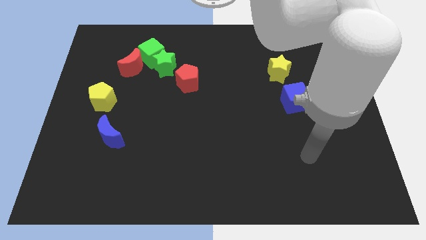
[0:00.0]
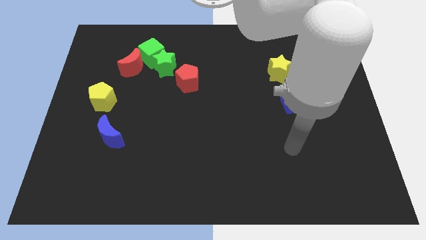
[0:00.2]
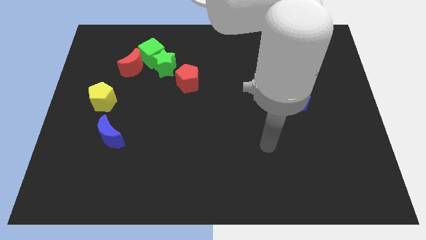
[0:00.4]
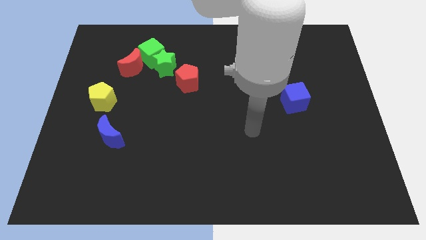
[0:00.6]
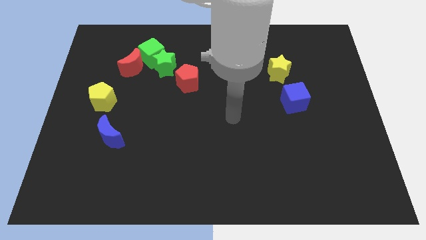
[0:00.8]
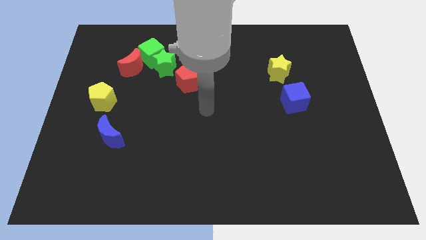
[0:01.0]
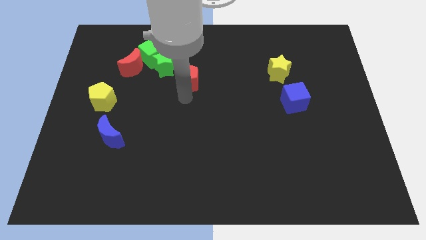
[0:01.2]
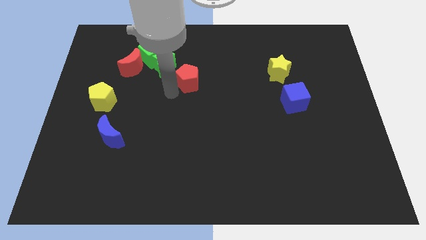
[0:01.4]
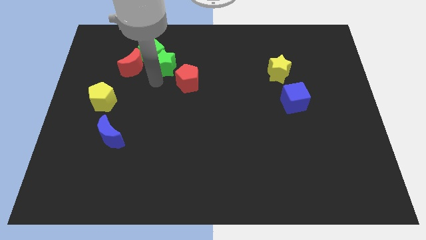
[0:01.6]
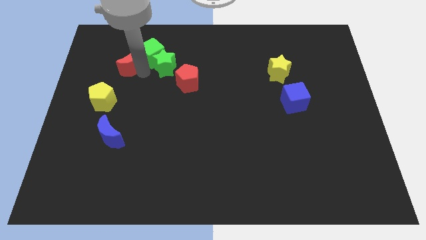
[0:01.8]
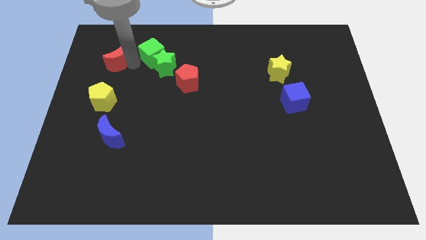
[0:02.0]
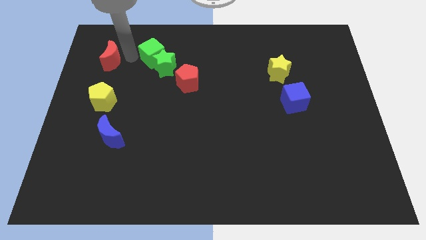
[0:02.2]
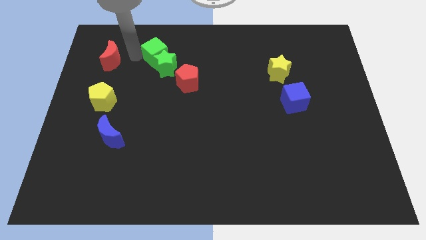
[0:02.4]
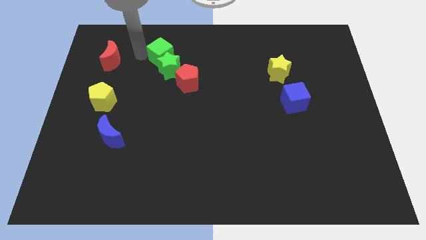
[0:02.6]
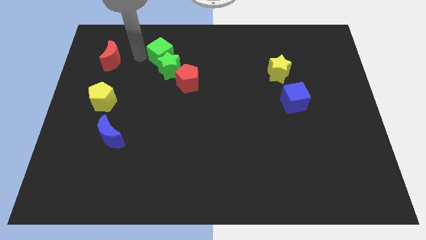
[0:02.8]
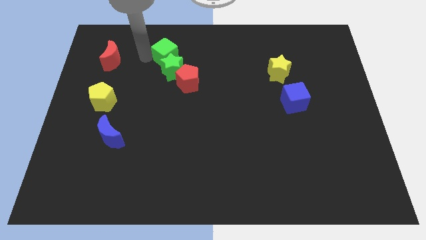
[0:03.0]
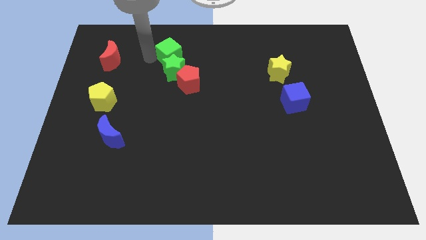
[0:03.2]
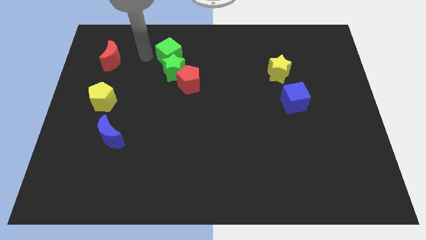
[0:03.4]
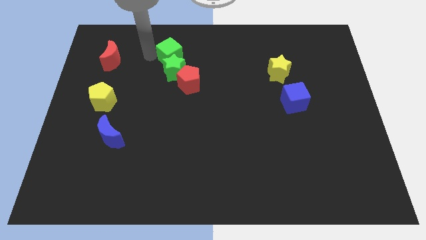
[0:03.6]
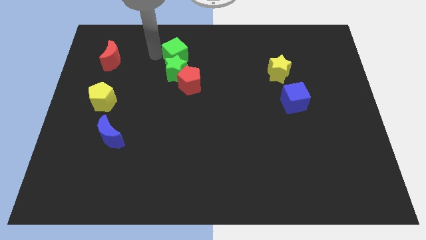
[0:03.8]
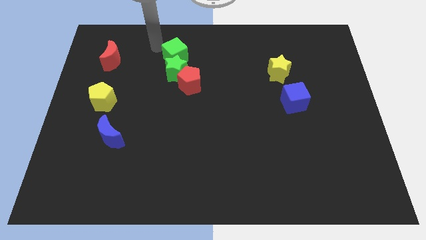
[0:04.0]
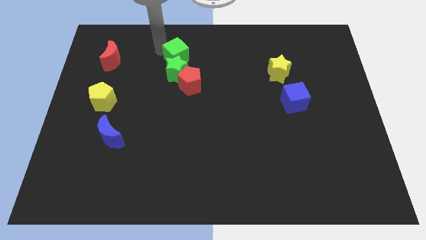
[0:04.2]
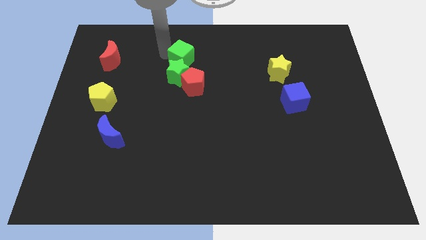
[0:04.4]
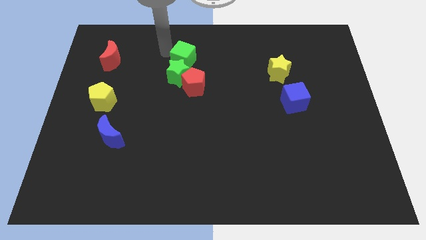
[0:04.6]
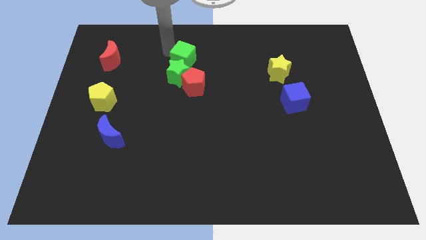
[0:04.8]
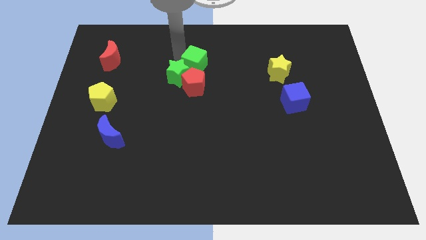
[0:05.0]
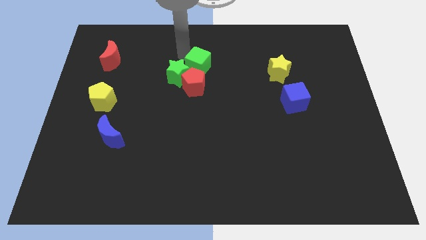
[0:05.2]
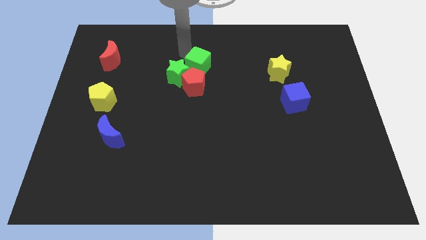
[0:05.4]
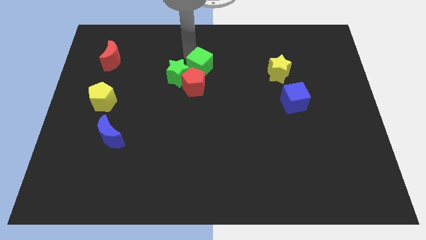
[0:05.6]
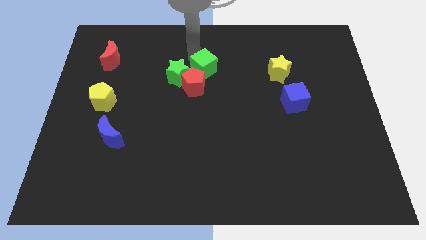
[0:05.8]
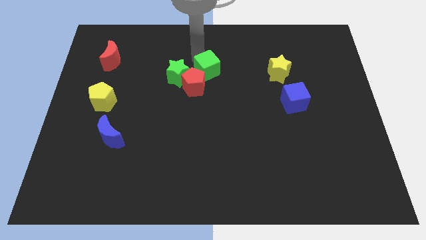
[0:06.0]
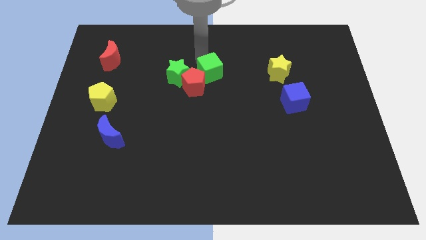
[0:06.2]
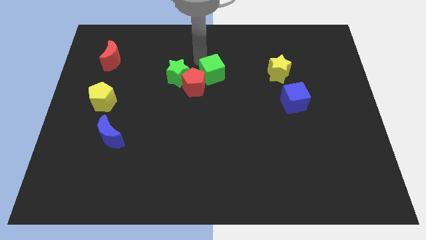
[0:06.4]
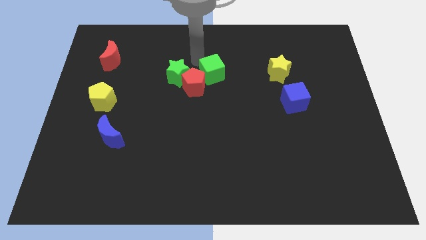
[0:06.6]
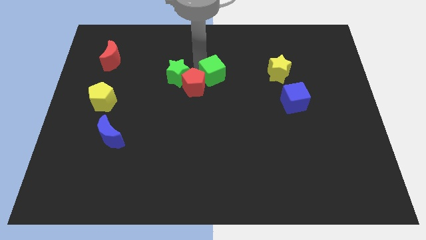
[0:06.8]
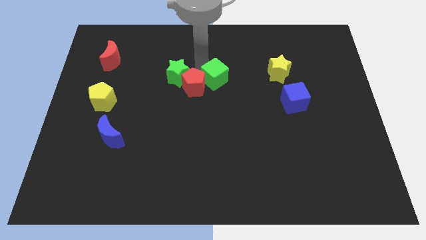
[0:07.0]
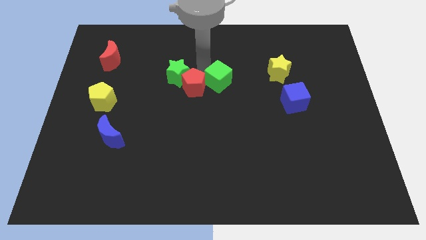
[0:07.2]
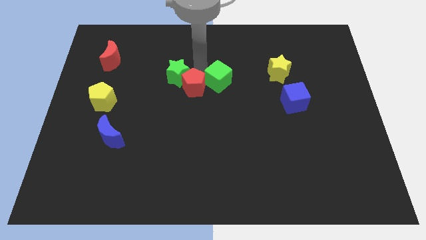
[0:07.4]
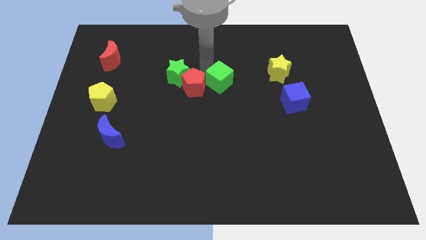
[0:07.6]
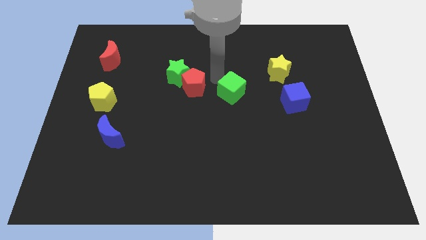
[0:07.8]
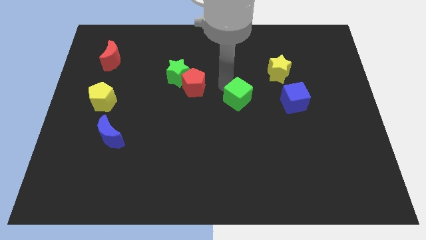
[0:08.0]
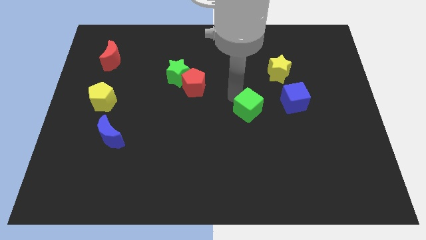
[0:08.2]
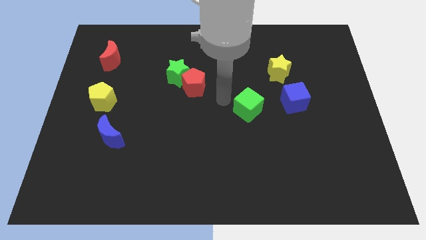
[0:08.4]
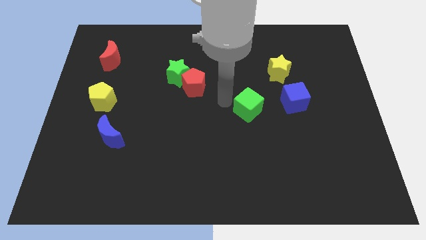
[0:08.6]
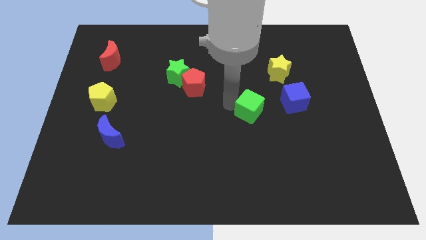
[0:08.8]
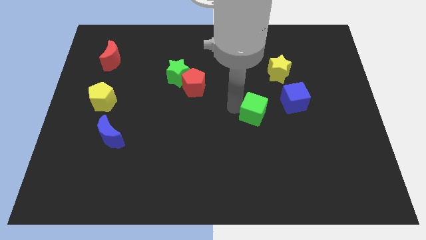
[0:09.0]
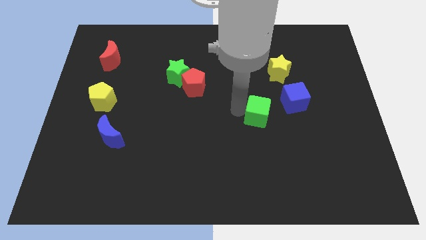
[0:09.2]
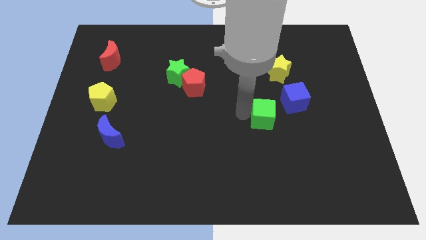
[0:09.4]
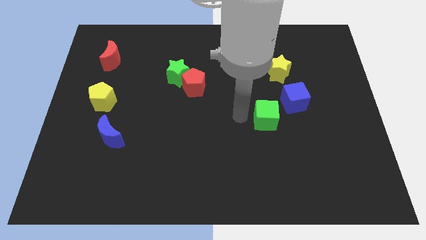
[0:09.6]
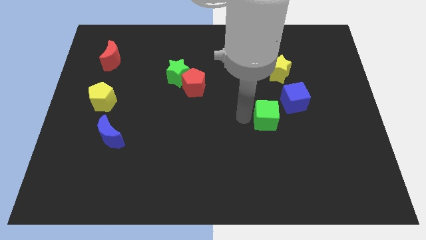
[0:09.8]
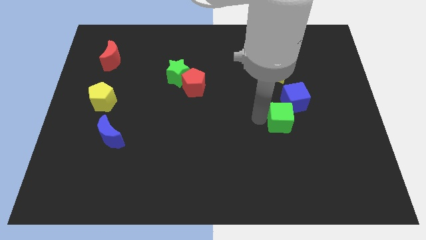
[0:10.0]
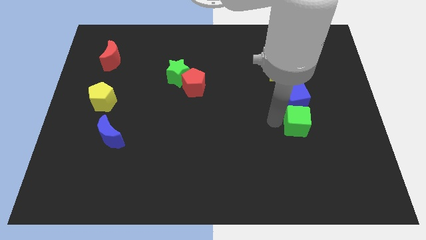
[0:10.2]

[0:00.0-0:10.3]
slide the green cube diagonally down and to the right of the blue cube

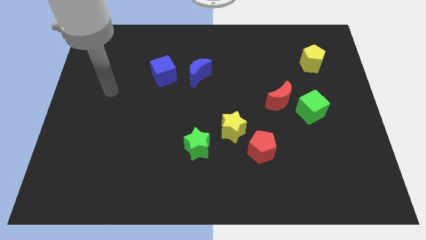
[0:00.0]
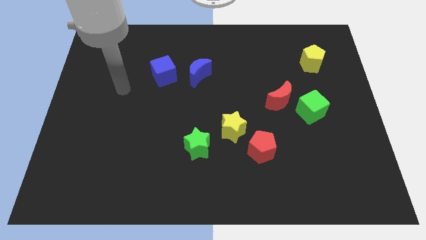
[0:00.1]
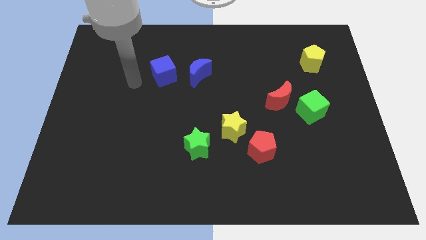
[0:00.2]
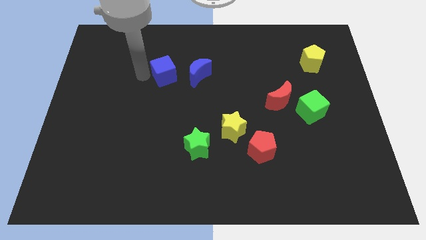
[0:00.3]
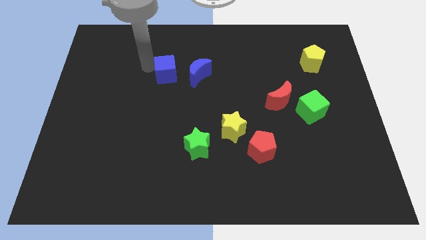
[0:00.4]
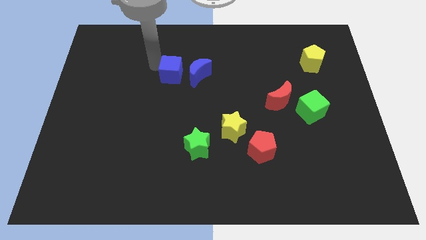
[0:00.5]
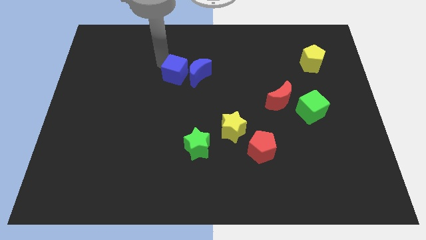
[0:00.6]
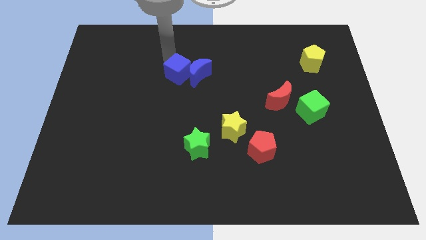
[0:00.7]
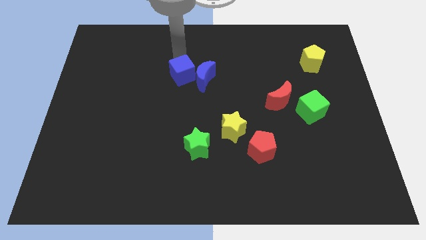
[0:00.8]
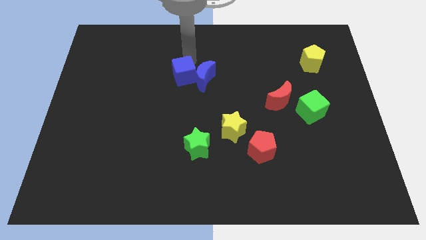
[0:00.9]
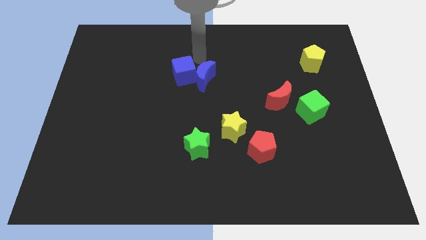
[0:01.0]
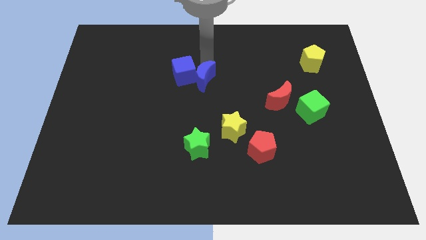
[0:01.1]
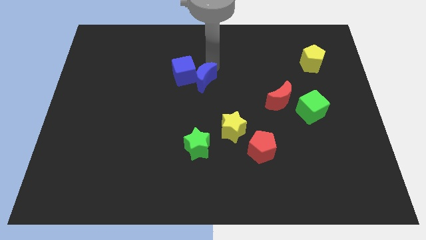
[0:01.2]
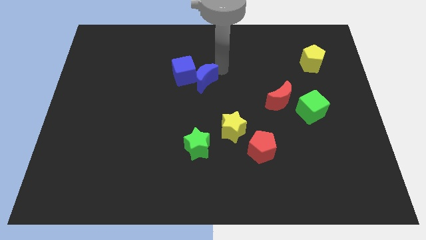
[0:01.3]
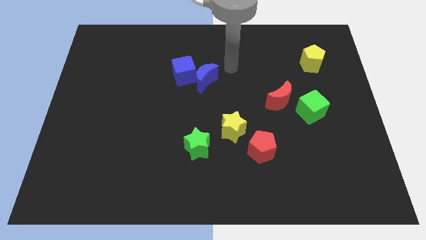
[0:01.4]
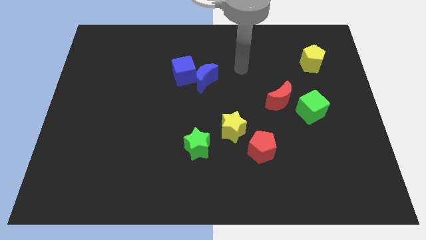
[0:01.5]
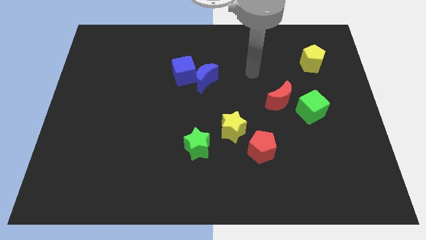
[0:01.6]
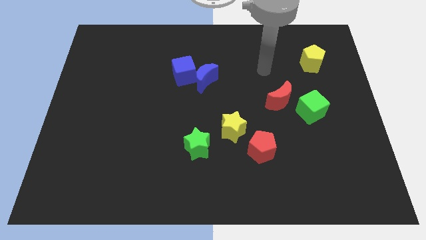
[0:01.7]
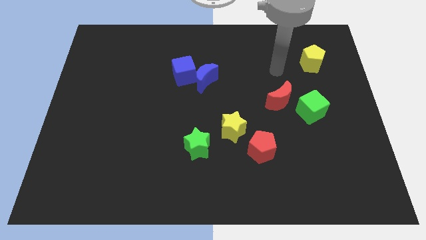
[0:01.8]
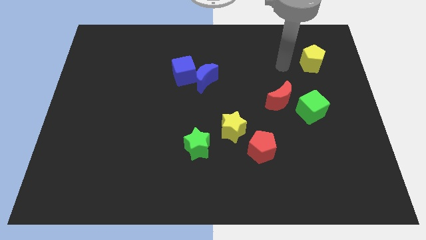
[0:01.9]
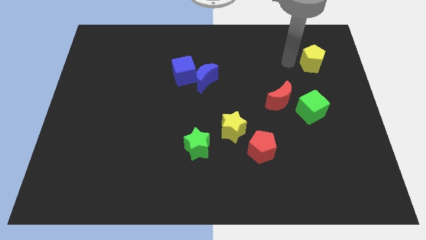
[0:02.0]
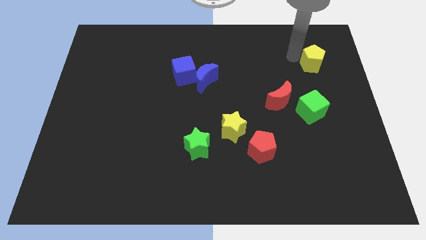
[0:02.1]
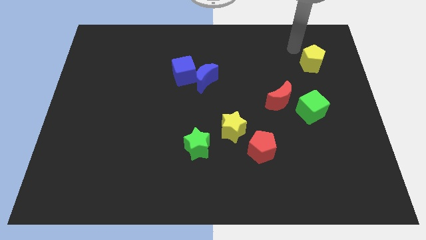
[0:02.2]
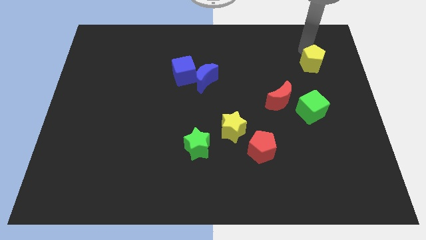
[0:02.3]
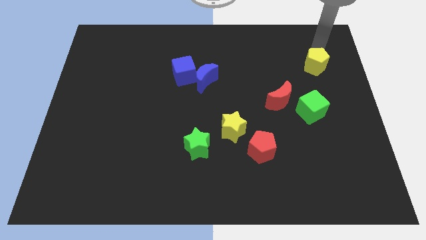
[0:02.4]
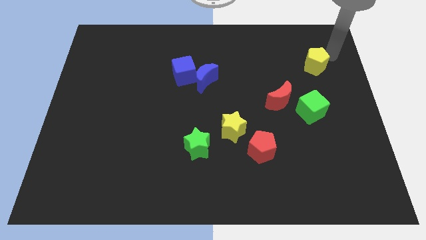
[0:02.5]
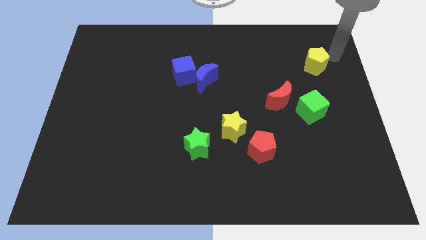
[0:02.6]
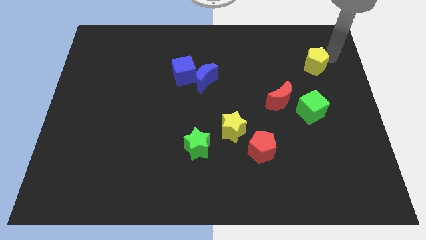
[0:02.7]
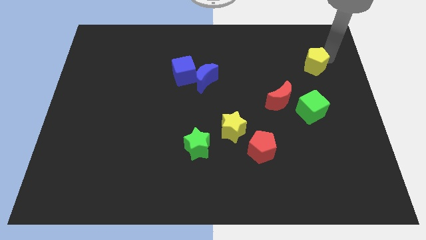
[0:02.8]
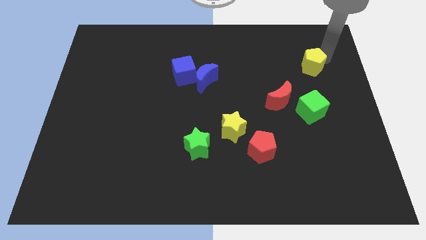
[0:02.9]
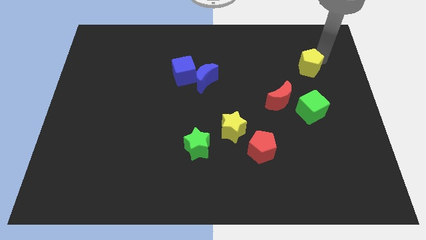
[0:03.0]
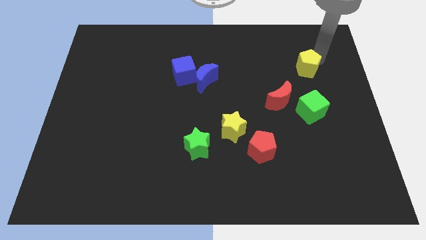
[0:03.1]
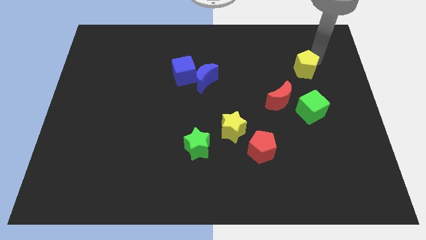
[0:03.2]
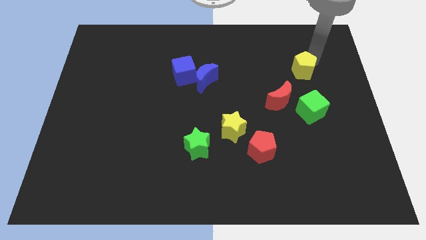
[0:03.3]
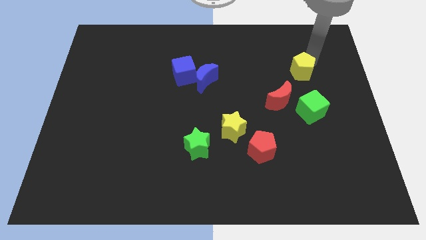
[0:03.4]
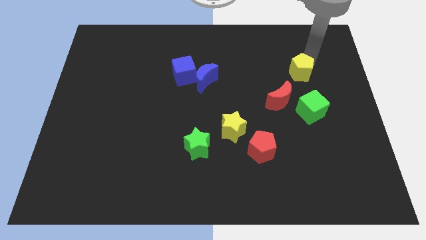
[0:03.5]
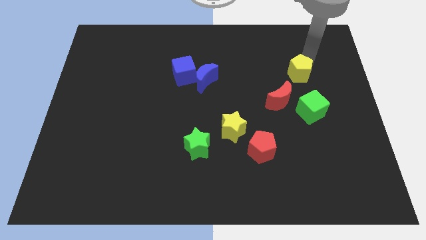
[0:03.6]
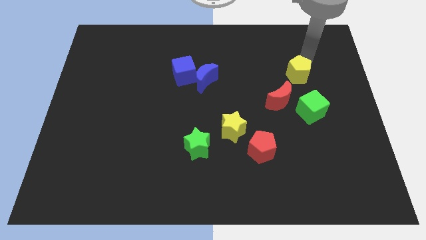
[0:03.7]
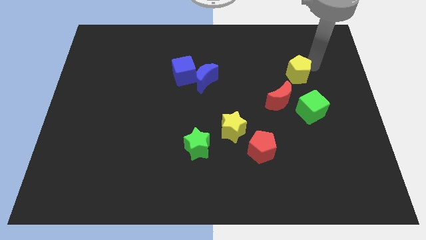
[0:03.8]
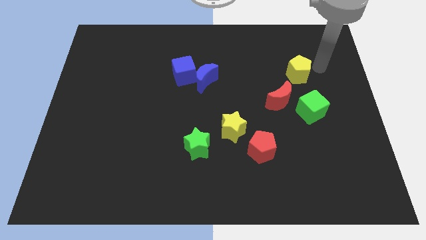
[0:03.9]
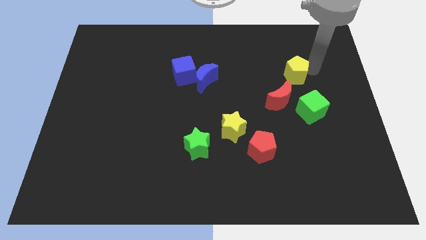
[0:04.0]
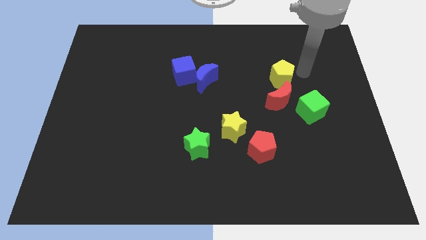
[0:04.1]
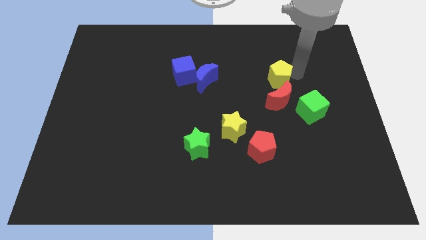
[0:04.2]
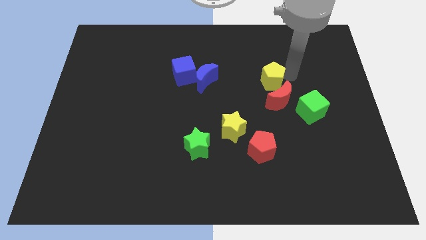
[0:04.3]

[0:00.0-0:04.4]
push the yellow pentagon diagonally up and to the left of the red moon
